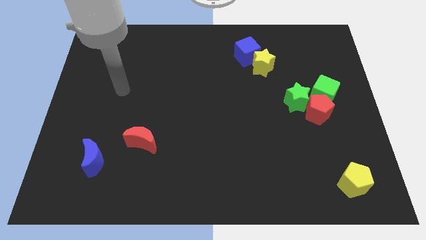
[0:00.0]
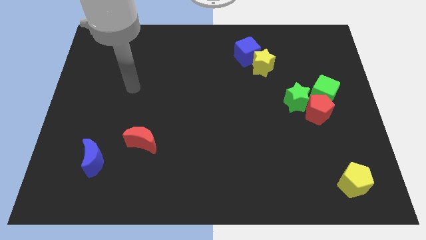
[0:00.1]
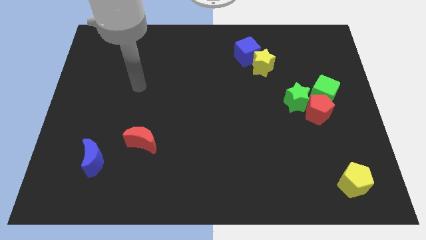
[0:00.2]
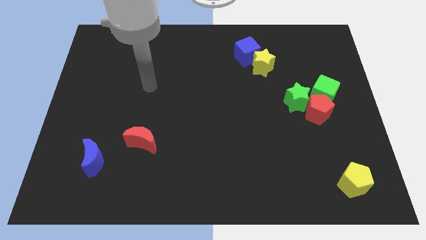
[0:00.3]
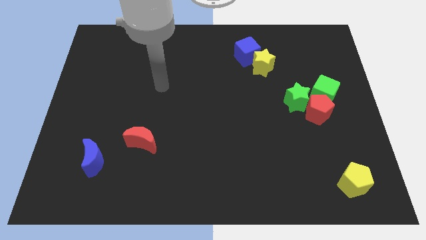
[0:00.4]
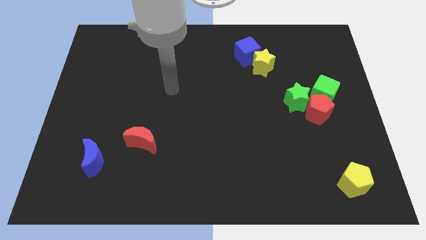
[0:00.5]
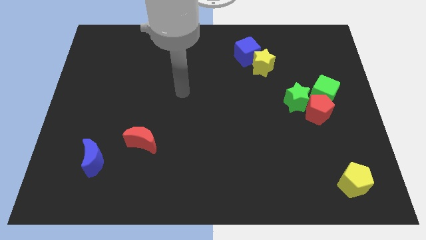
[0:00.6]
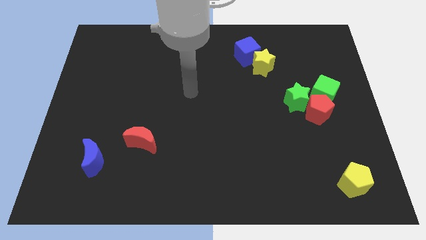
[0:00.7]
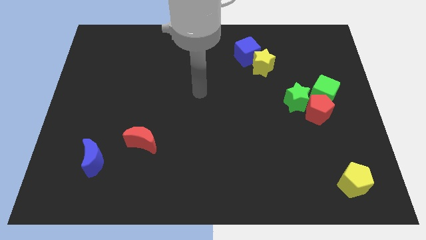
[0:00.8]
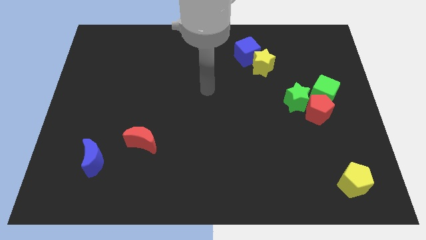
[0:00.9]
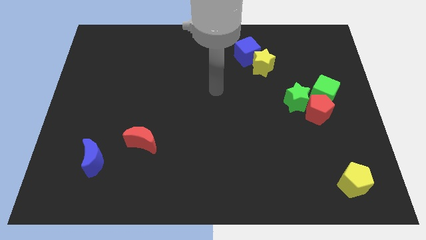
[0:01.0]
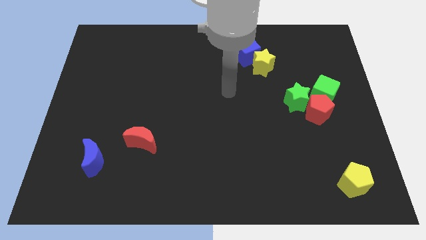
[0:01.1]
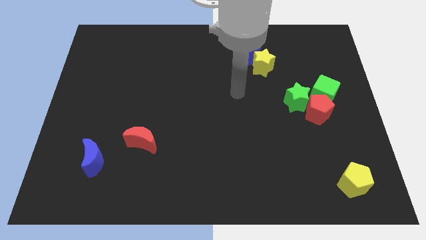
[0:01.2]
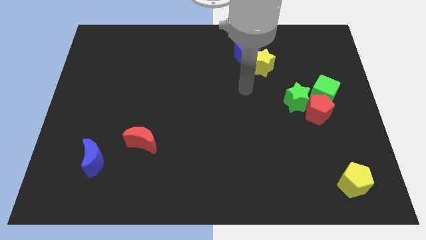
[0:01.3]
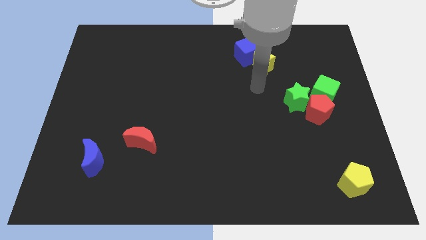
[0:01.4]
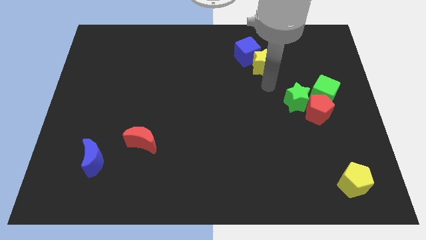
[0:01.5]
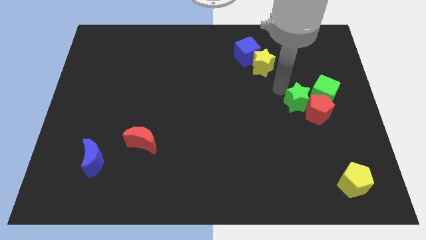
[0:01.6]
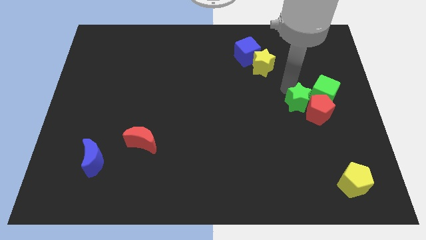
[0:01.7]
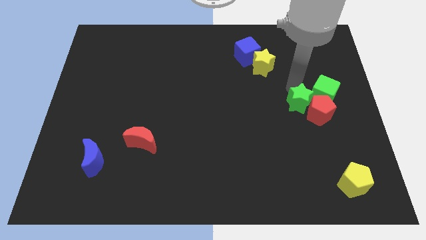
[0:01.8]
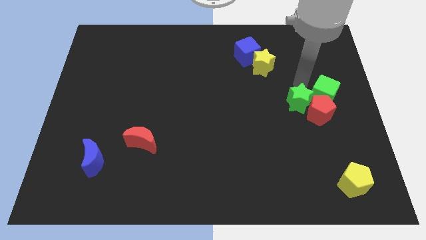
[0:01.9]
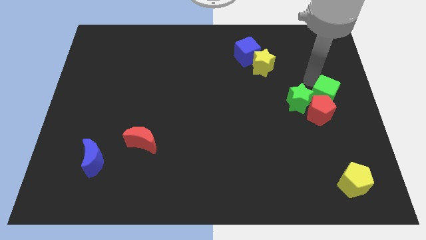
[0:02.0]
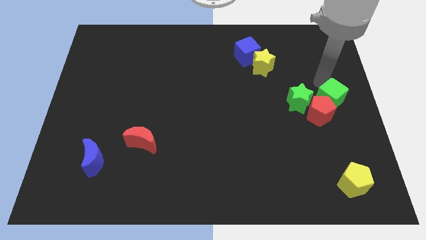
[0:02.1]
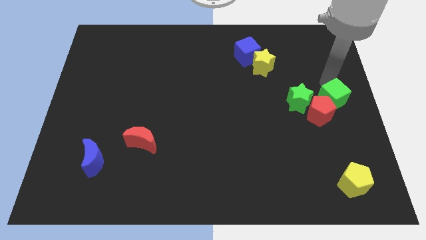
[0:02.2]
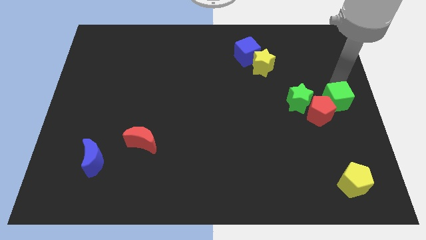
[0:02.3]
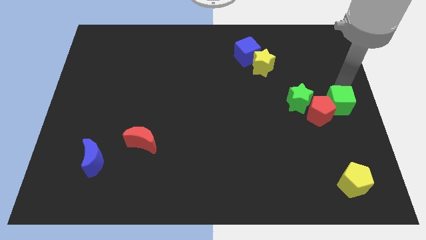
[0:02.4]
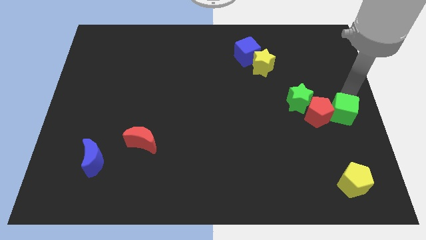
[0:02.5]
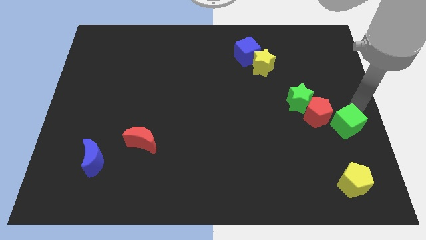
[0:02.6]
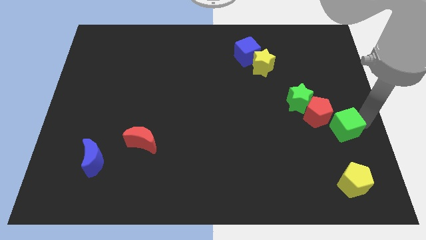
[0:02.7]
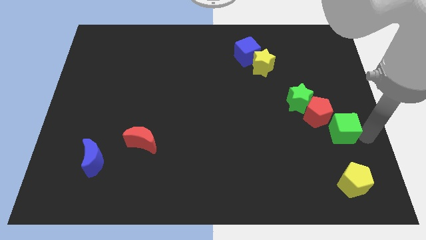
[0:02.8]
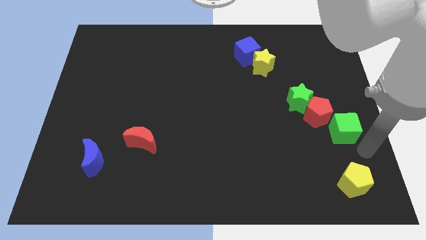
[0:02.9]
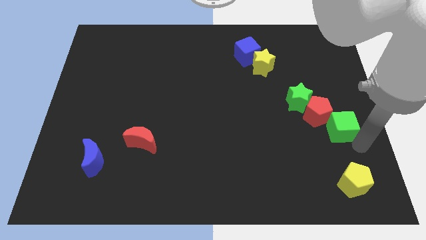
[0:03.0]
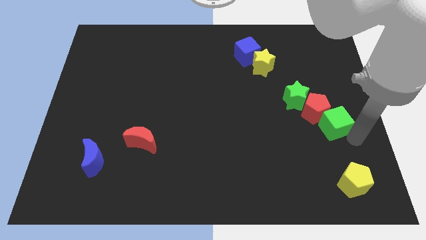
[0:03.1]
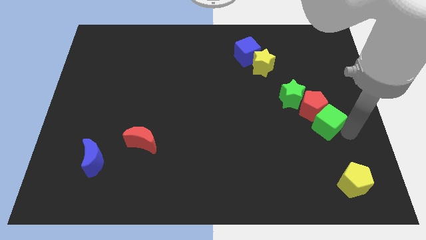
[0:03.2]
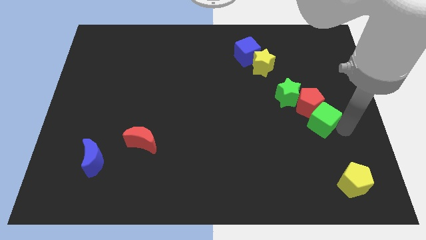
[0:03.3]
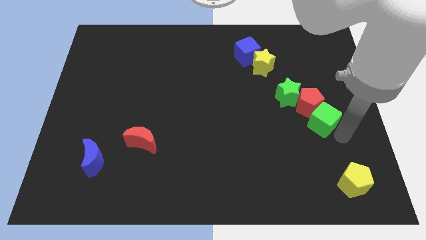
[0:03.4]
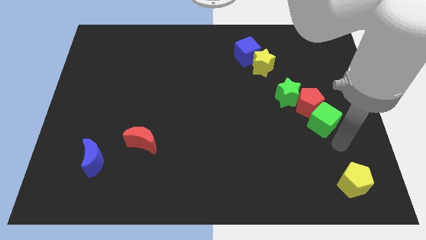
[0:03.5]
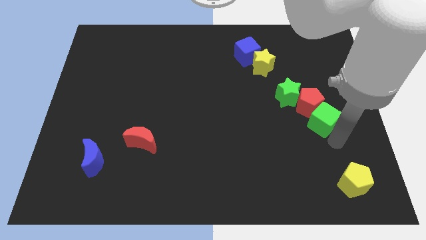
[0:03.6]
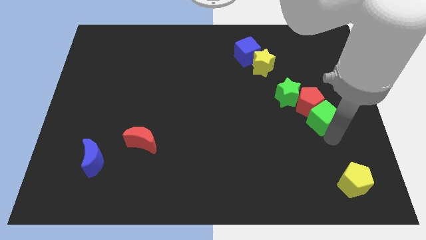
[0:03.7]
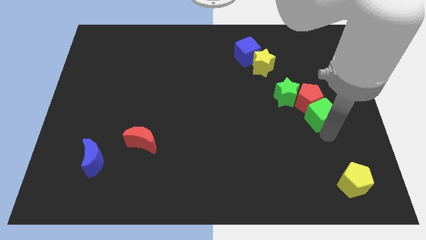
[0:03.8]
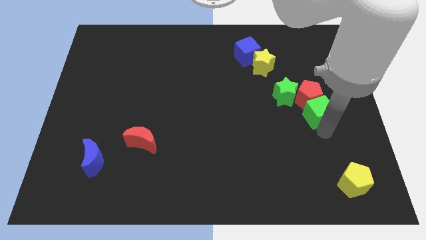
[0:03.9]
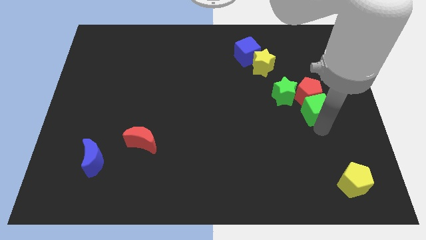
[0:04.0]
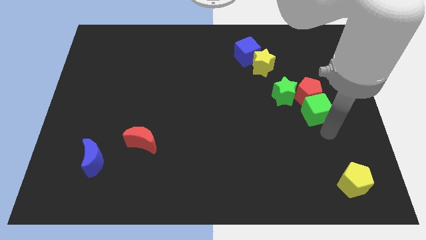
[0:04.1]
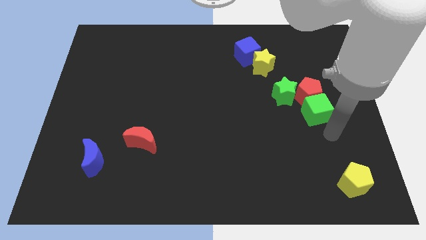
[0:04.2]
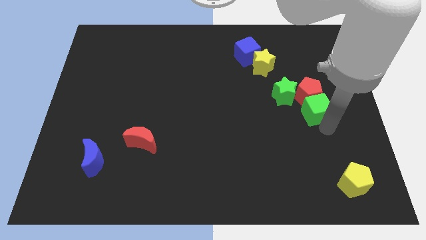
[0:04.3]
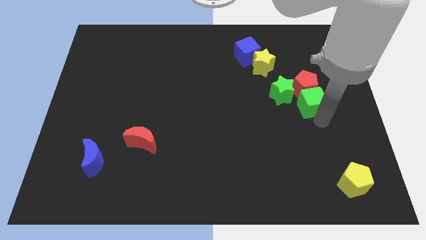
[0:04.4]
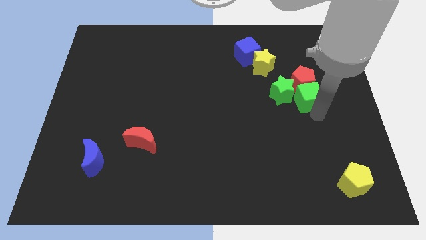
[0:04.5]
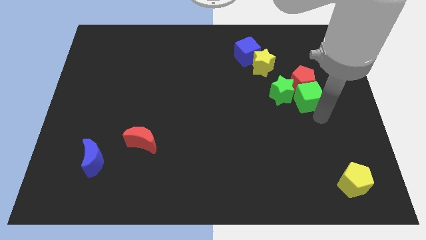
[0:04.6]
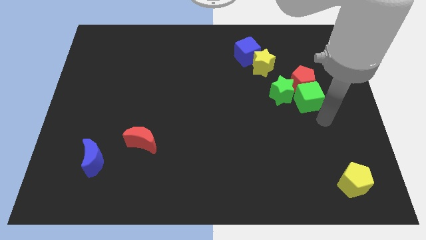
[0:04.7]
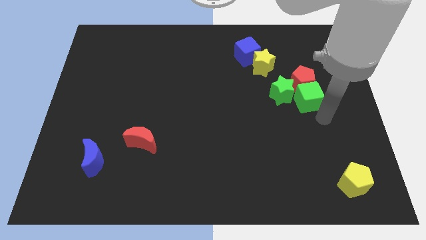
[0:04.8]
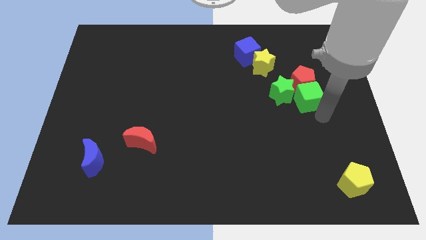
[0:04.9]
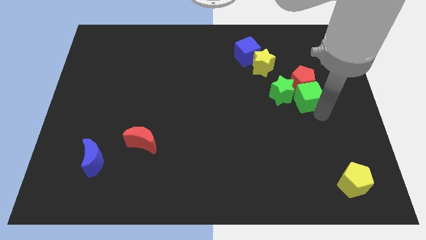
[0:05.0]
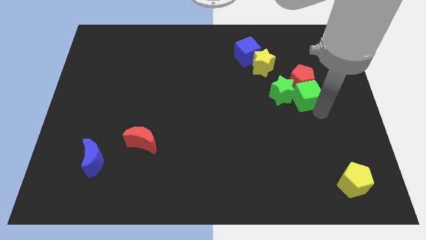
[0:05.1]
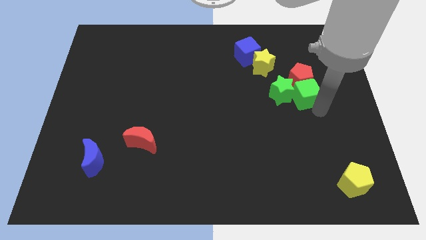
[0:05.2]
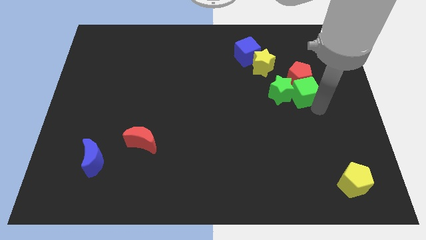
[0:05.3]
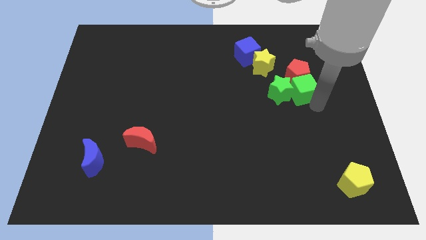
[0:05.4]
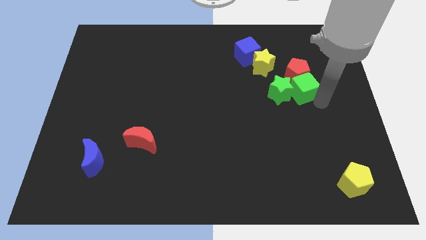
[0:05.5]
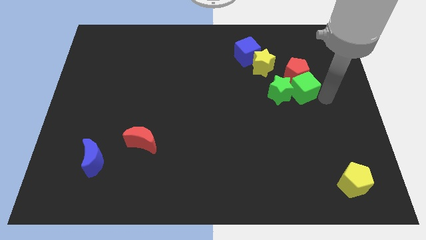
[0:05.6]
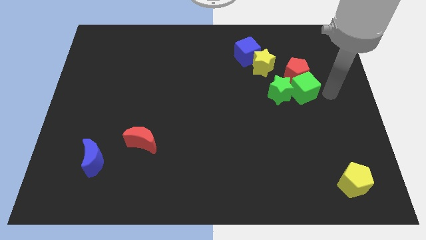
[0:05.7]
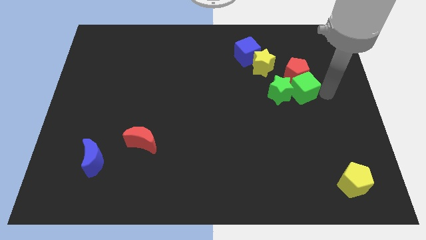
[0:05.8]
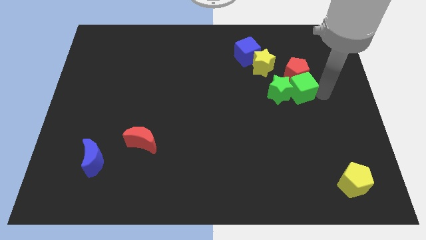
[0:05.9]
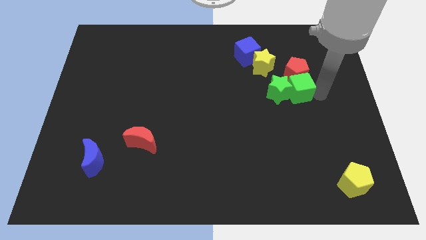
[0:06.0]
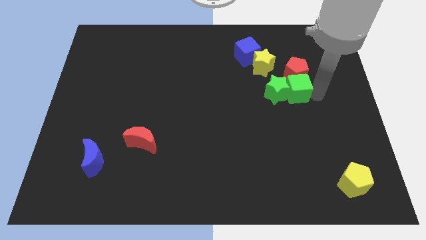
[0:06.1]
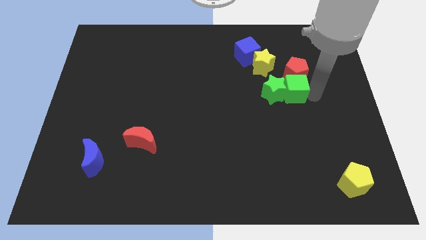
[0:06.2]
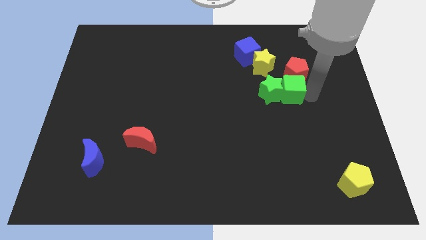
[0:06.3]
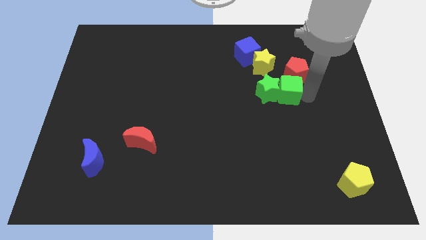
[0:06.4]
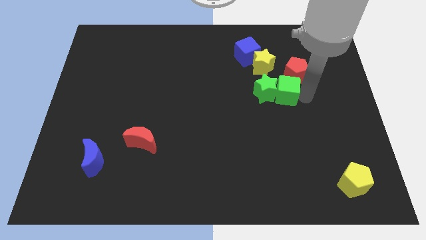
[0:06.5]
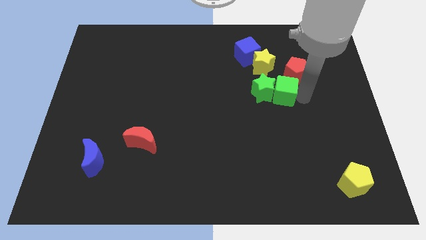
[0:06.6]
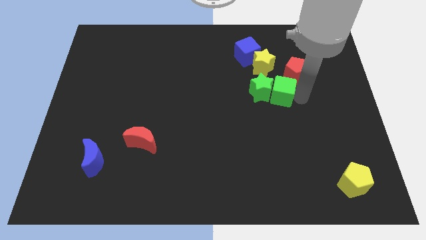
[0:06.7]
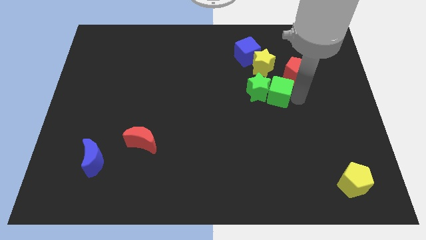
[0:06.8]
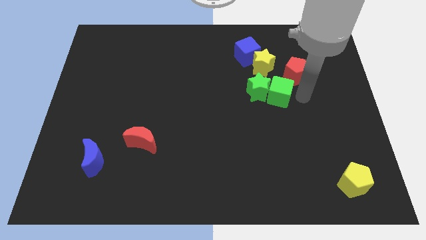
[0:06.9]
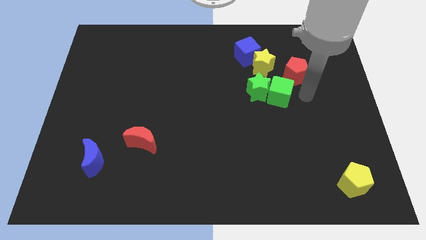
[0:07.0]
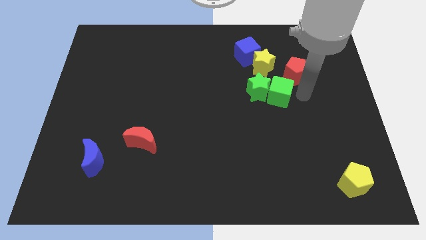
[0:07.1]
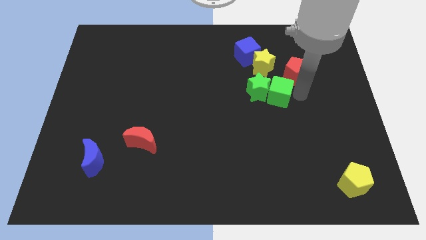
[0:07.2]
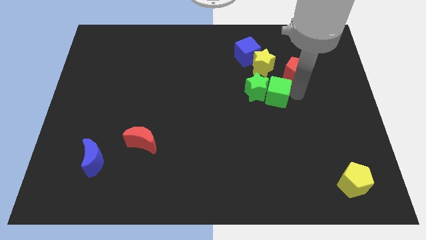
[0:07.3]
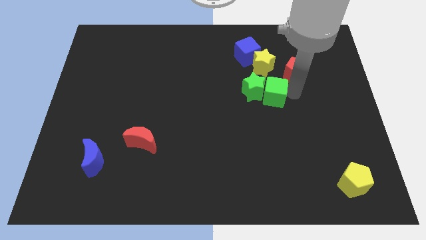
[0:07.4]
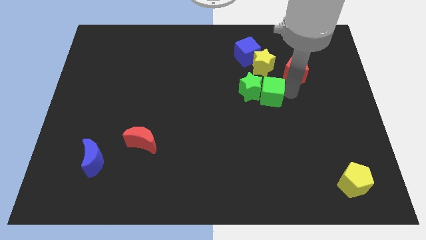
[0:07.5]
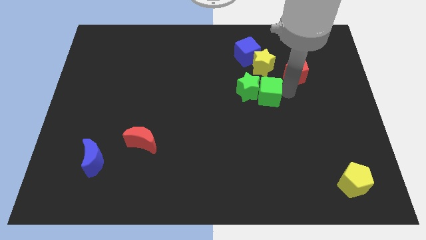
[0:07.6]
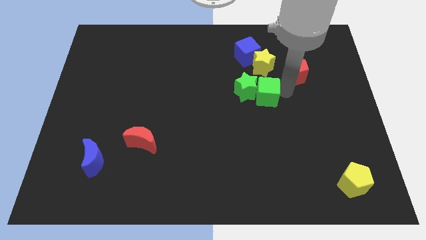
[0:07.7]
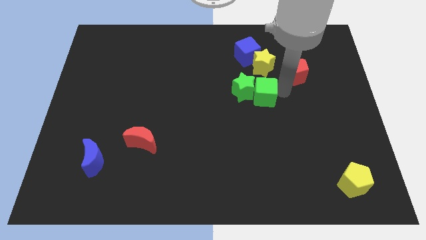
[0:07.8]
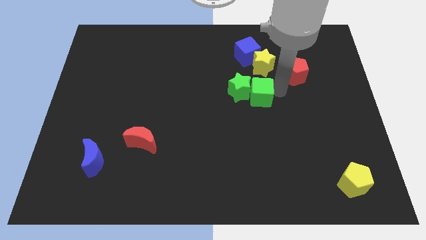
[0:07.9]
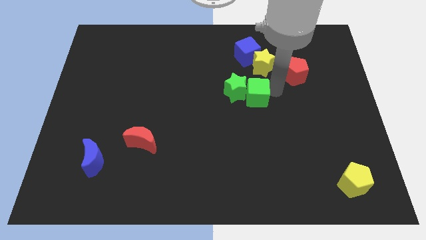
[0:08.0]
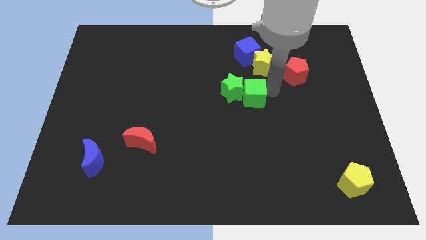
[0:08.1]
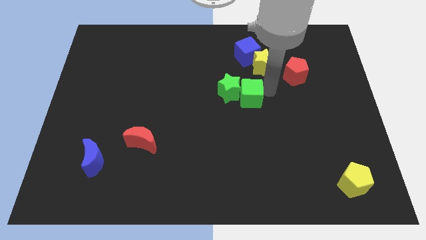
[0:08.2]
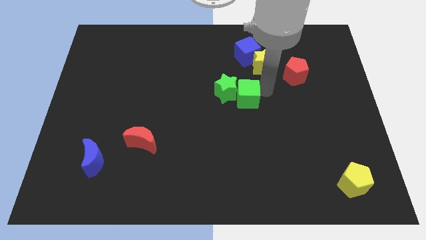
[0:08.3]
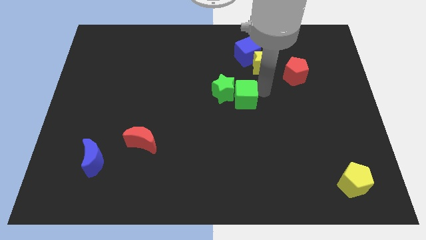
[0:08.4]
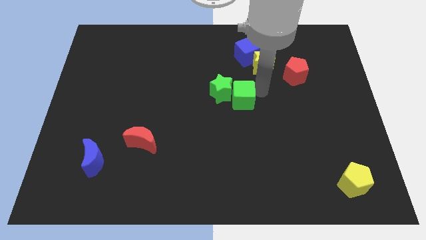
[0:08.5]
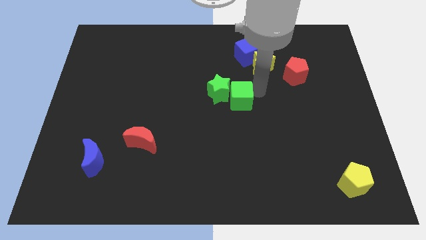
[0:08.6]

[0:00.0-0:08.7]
move the green cube left
